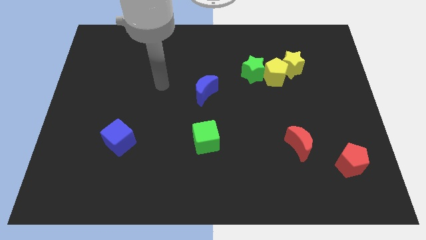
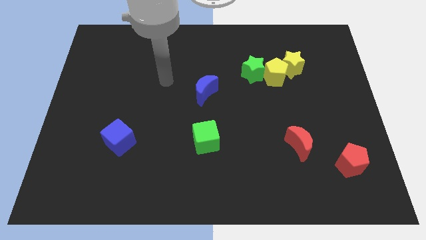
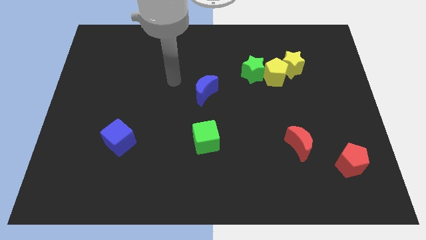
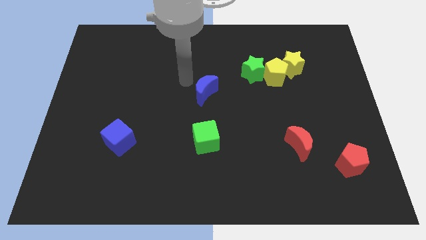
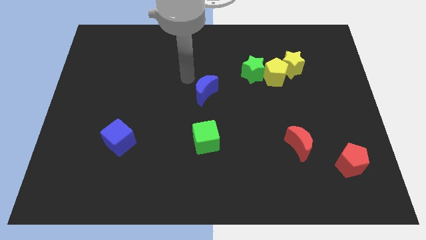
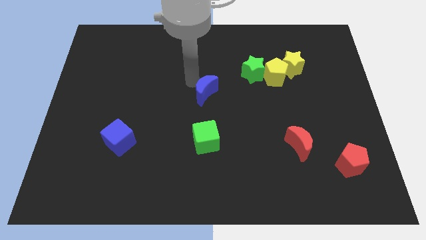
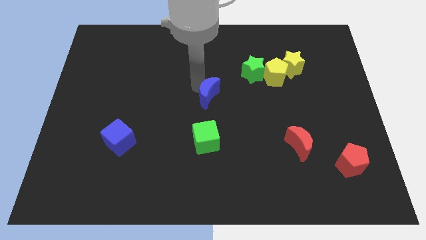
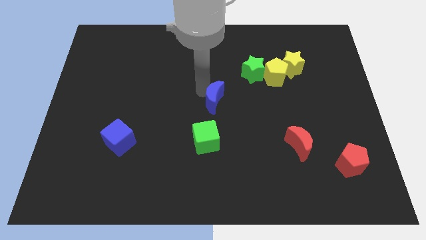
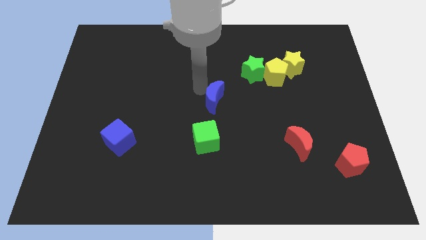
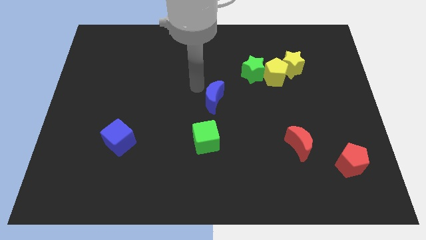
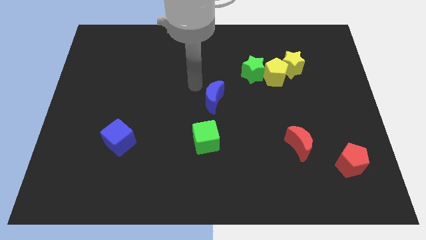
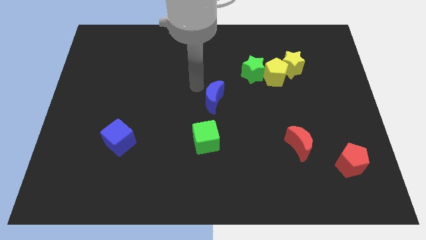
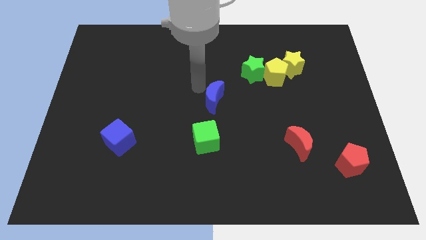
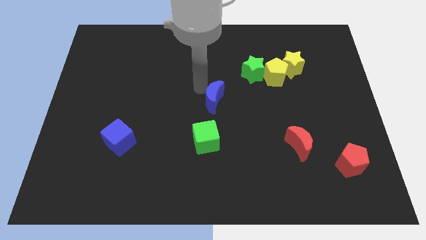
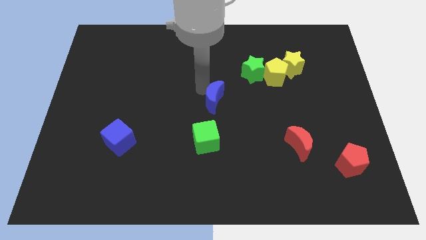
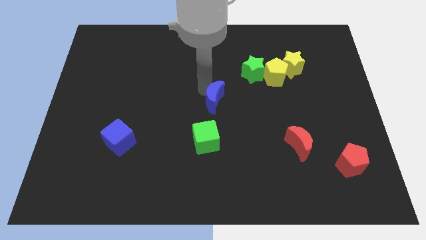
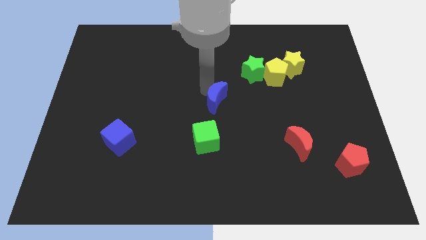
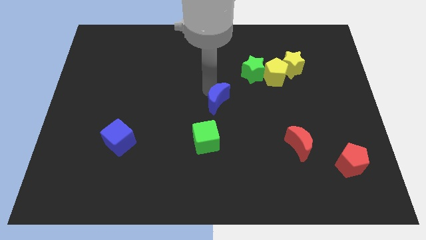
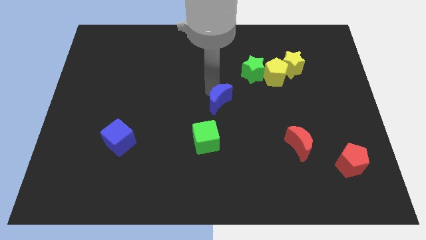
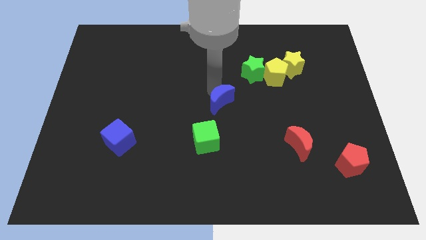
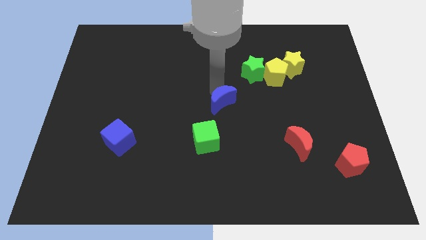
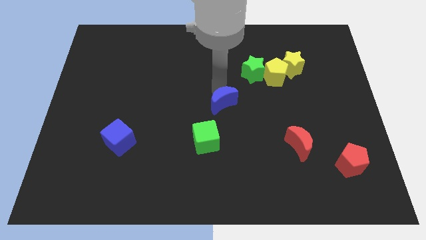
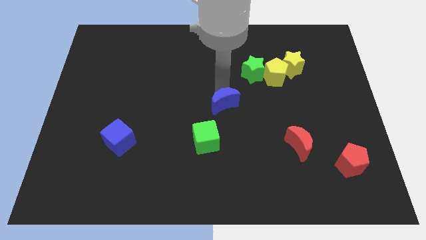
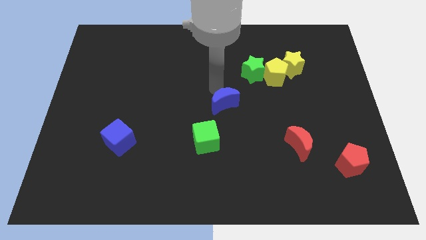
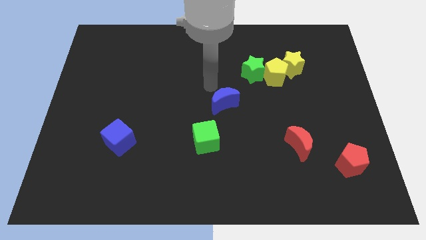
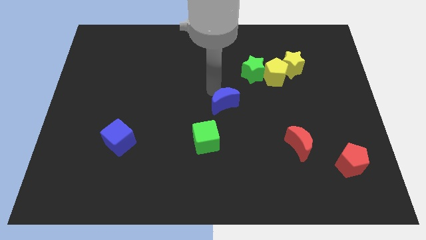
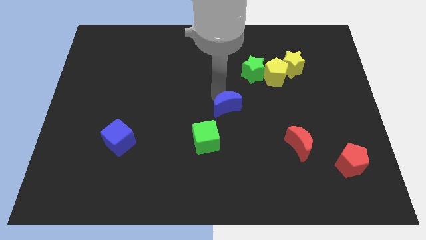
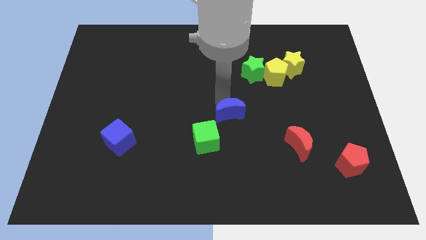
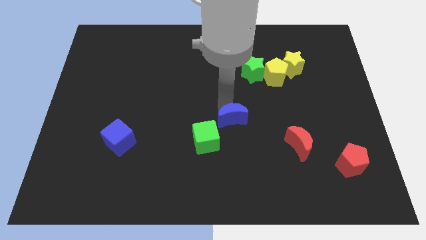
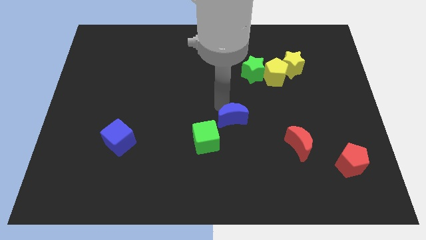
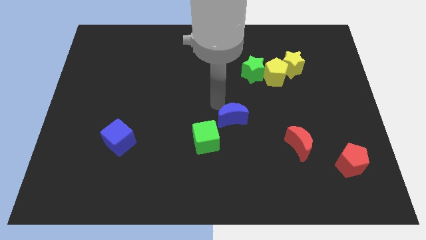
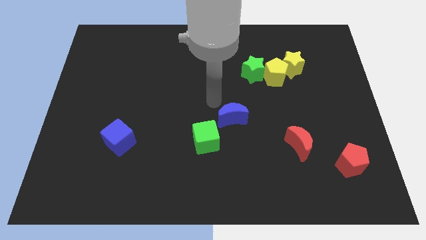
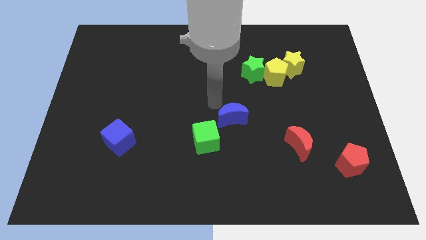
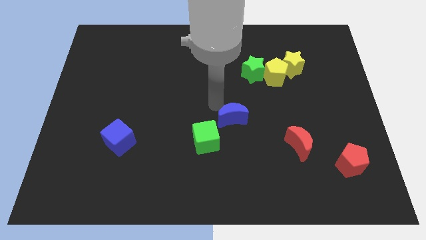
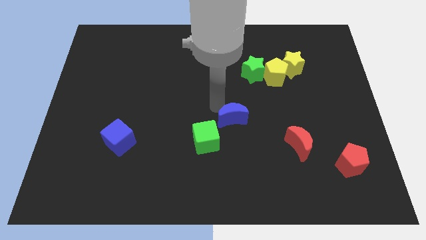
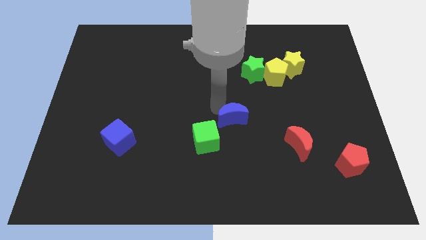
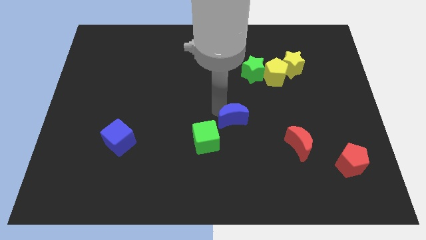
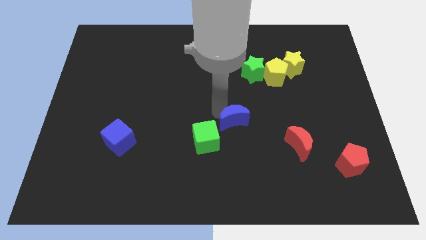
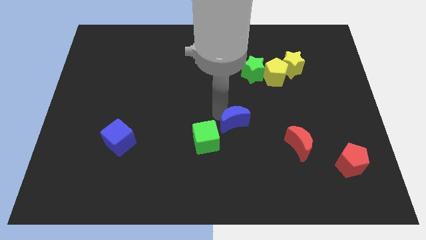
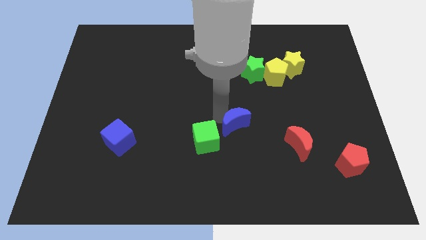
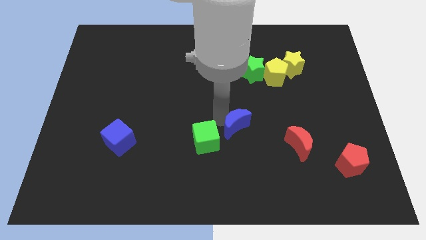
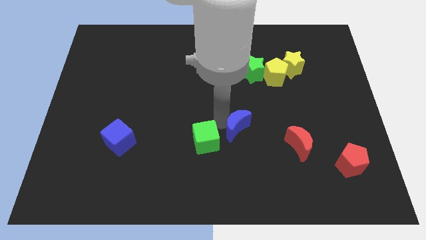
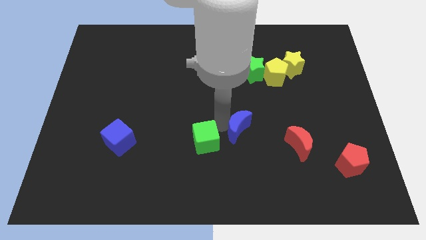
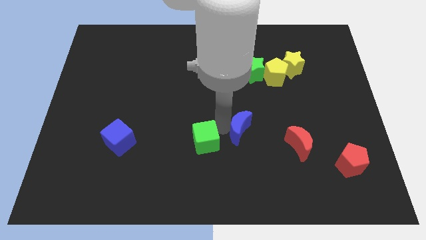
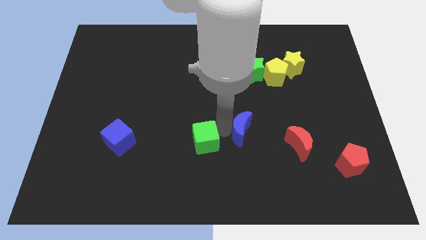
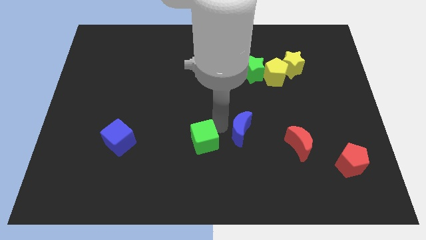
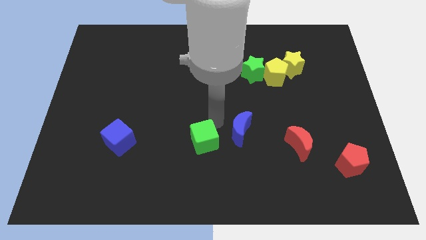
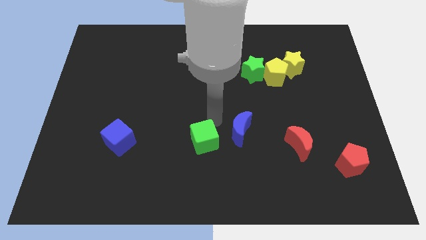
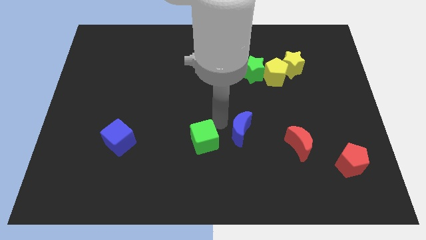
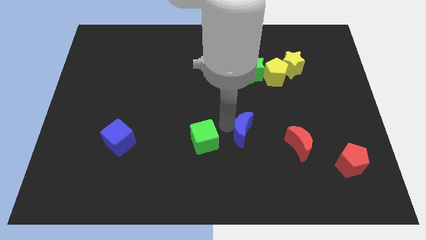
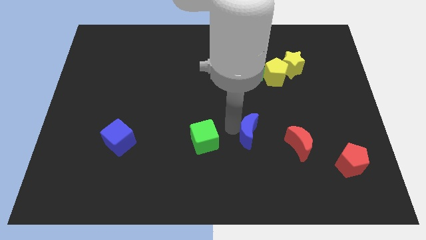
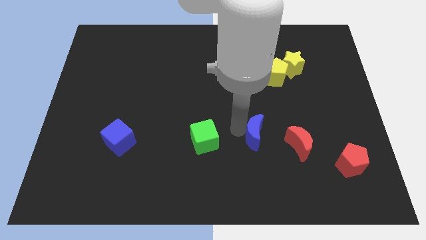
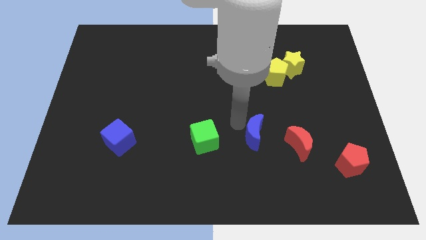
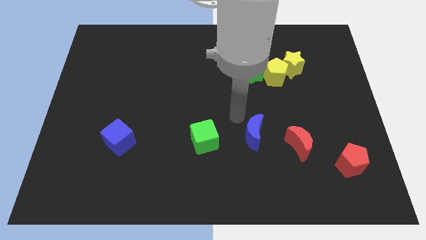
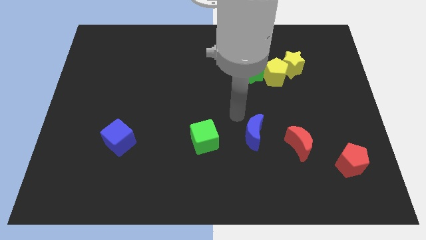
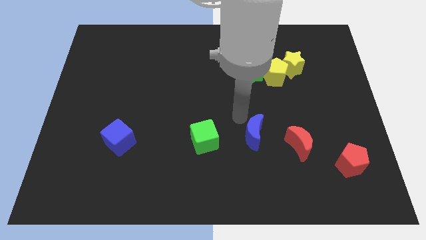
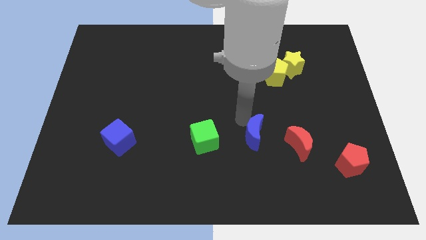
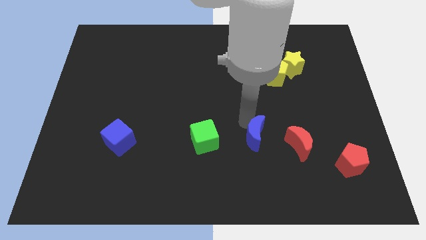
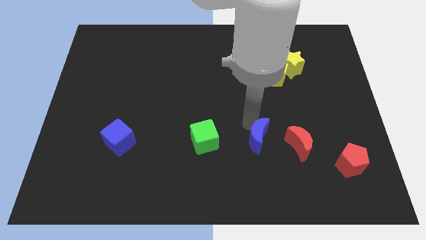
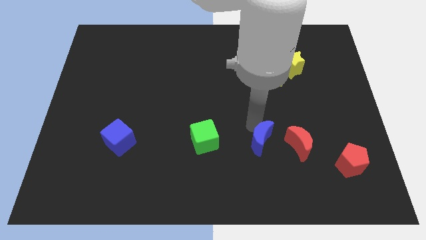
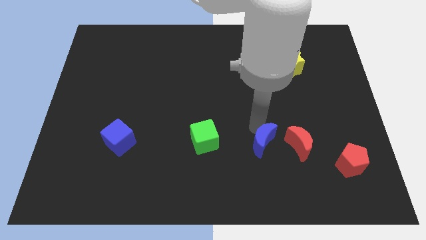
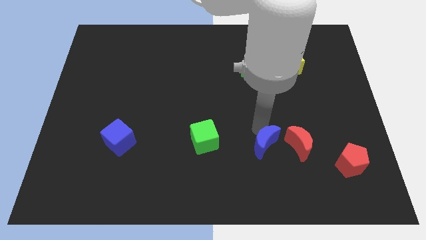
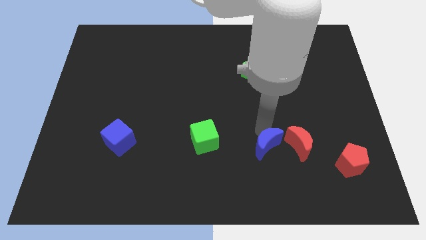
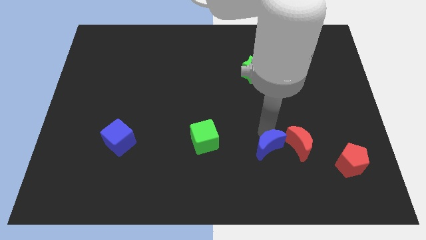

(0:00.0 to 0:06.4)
move the blue moon to the bottom left side of the red moon

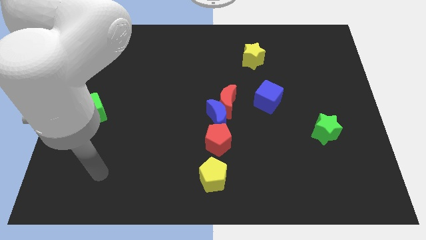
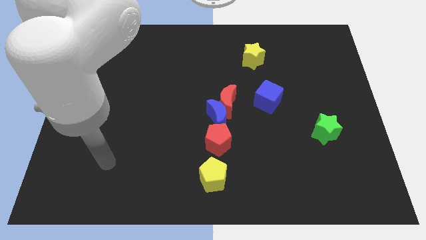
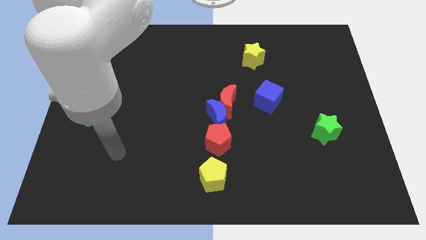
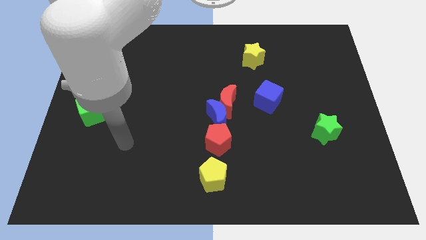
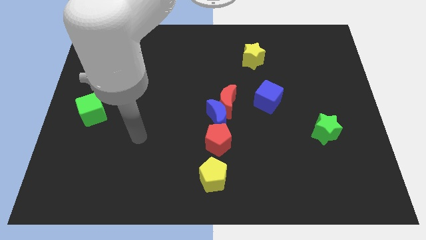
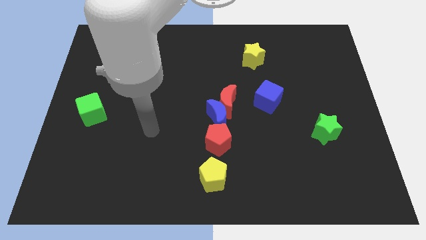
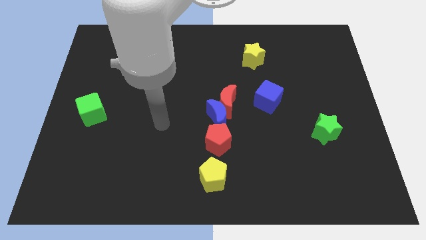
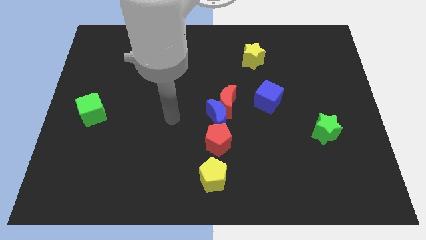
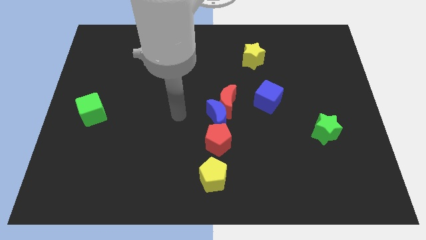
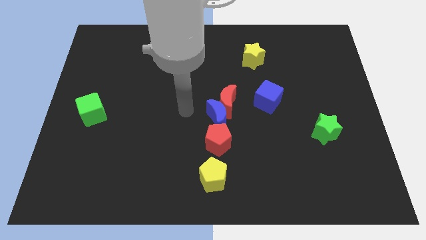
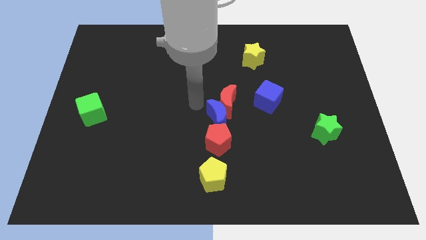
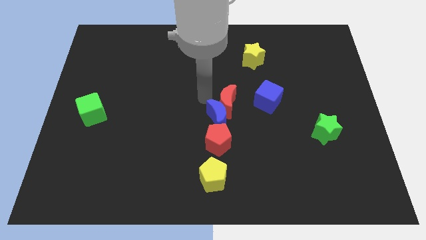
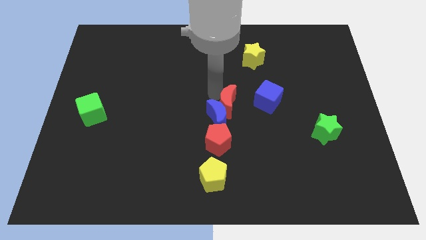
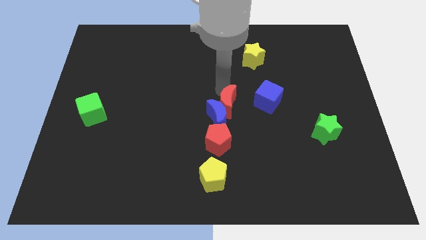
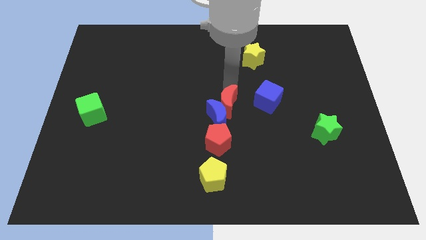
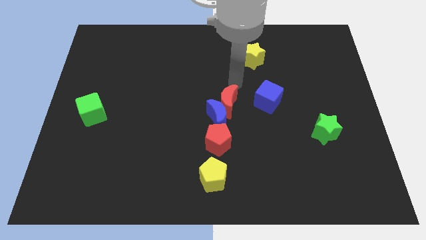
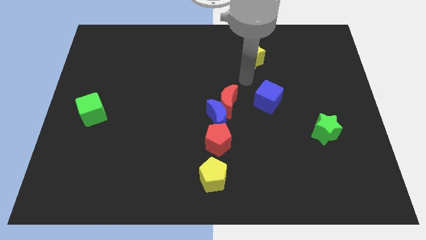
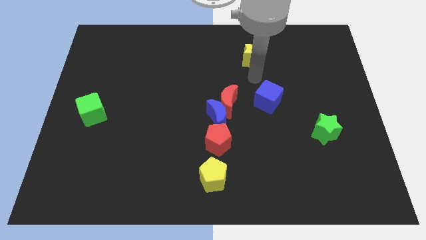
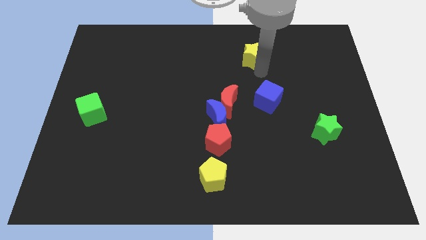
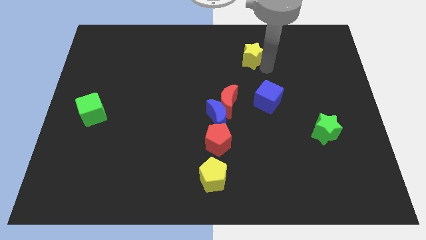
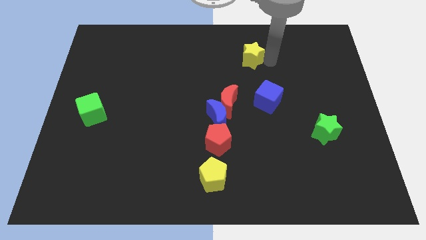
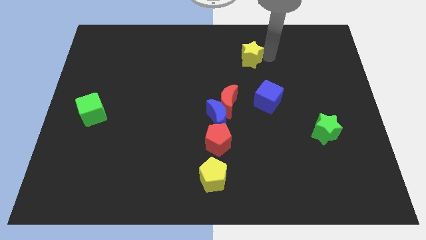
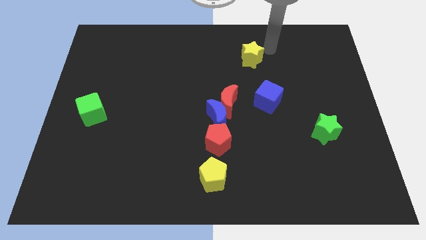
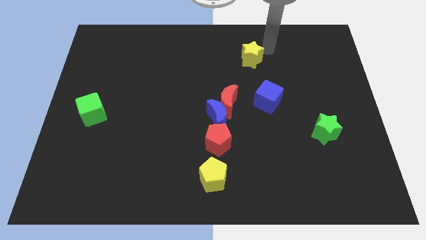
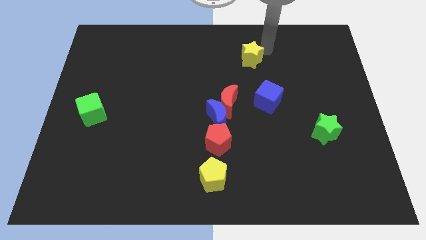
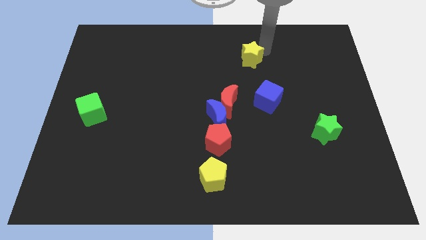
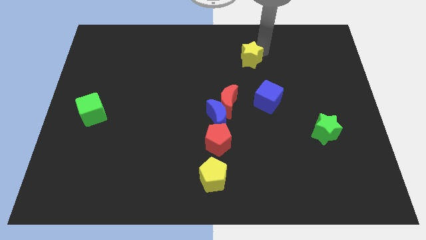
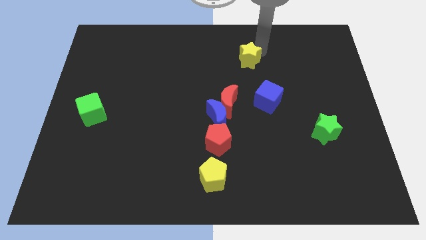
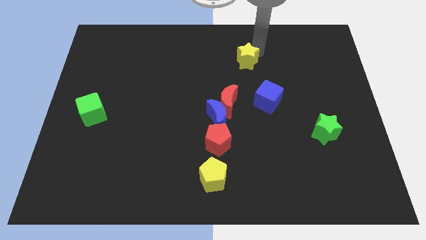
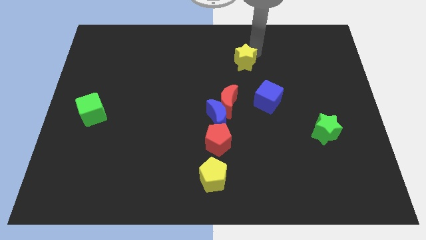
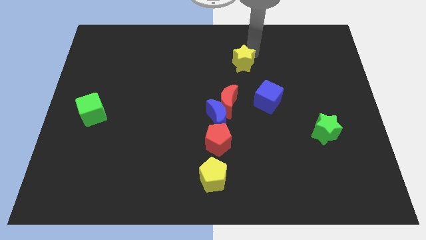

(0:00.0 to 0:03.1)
push the yellow star above the red moon
